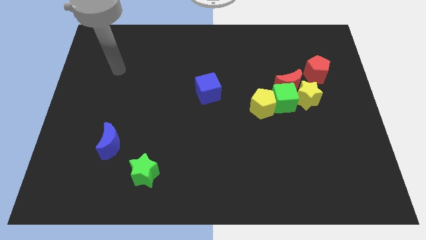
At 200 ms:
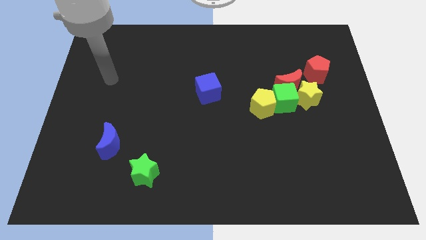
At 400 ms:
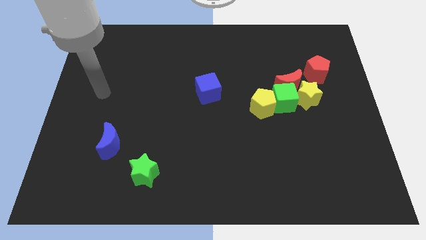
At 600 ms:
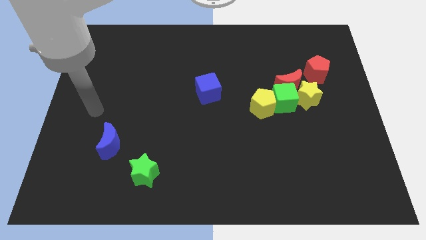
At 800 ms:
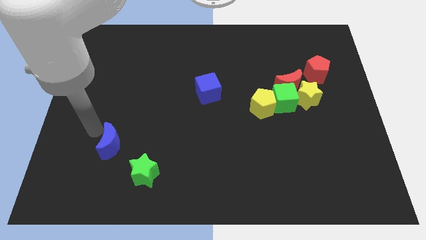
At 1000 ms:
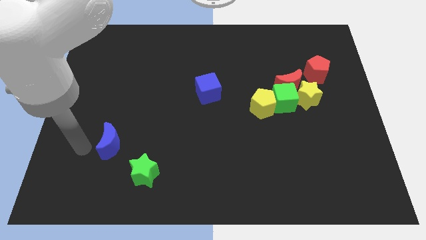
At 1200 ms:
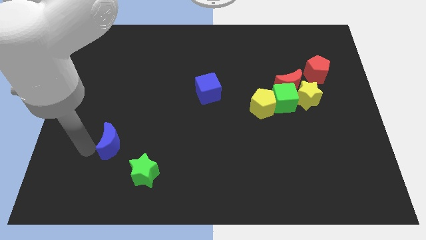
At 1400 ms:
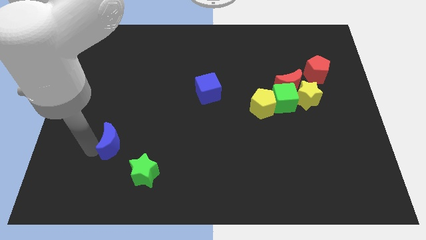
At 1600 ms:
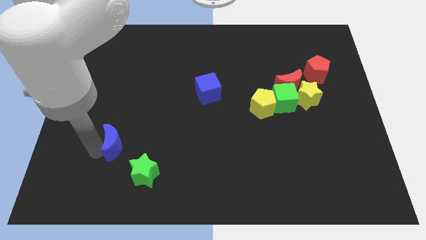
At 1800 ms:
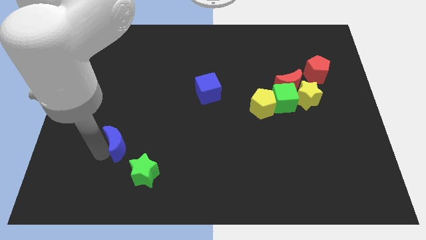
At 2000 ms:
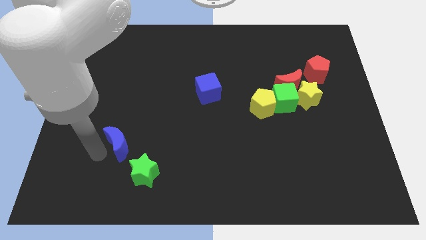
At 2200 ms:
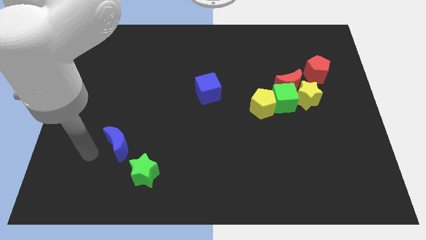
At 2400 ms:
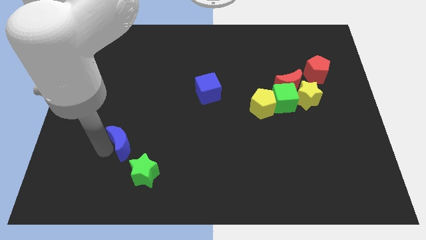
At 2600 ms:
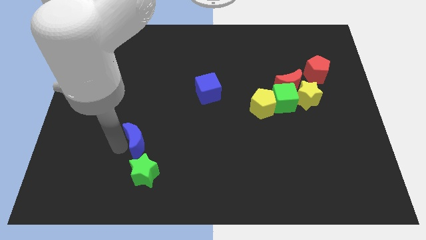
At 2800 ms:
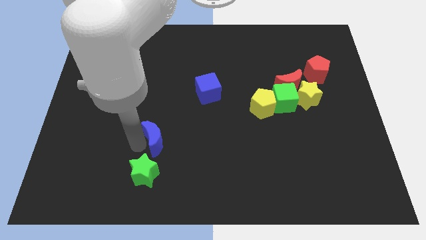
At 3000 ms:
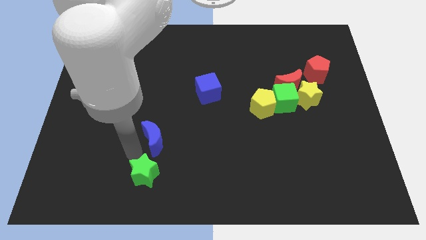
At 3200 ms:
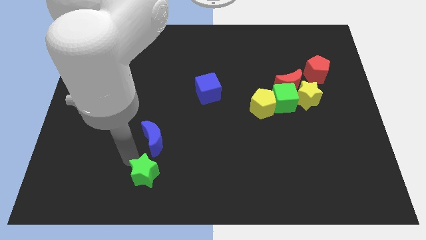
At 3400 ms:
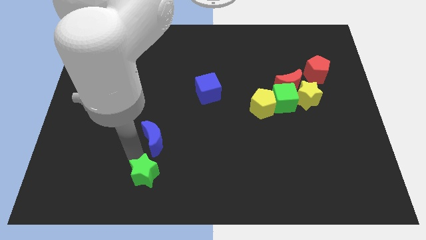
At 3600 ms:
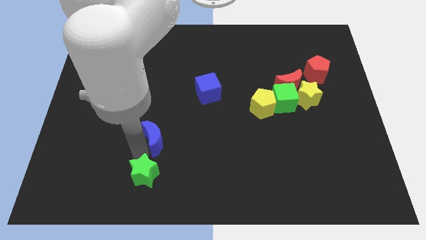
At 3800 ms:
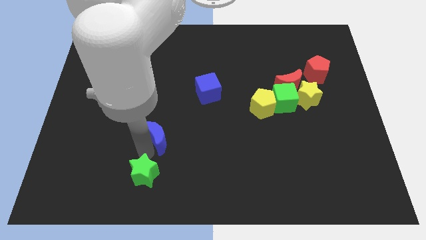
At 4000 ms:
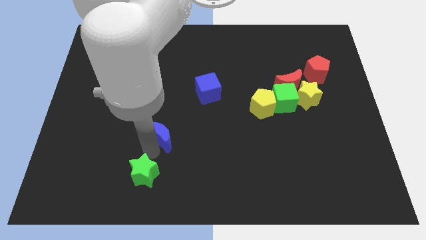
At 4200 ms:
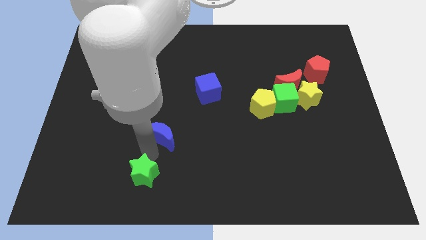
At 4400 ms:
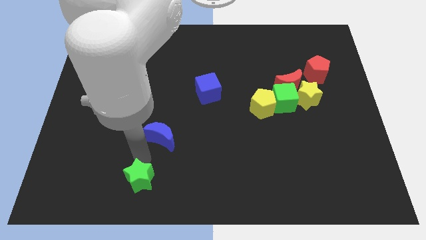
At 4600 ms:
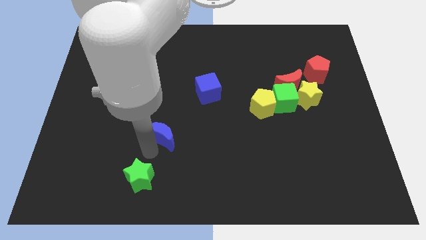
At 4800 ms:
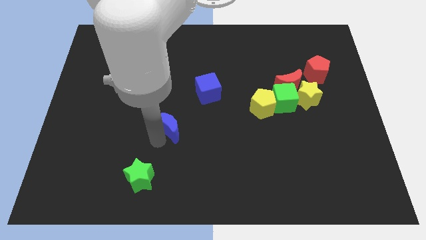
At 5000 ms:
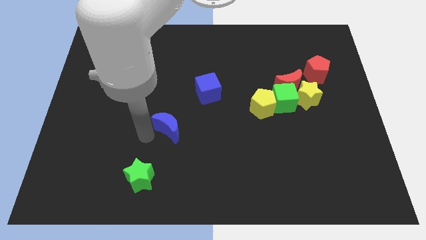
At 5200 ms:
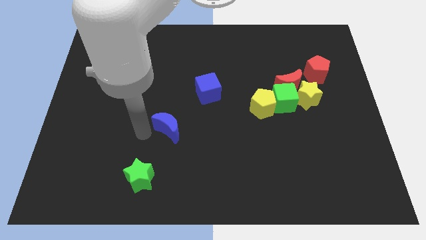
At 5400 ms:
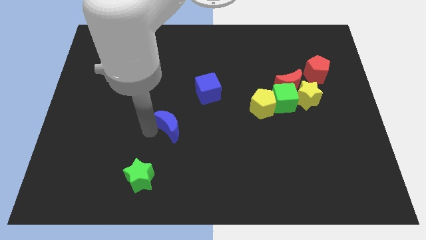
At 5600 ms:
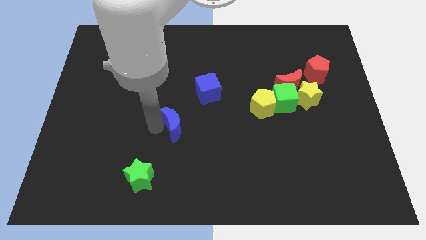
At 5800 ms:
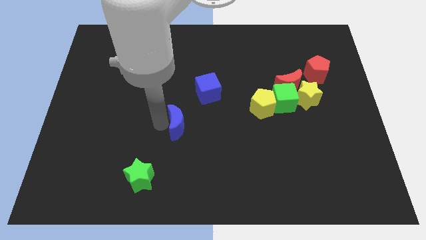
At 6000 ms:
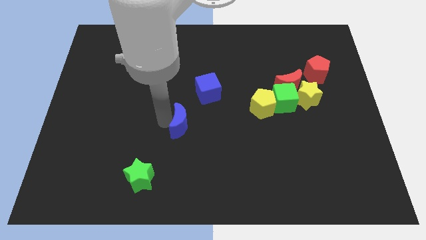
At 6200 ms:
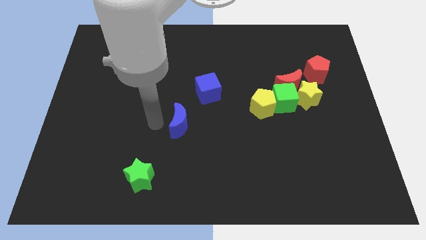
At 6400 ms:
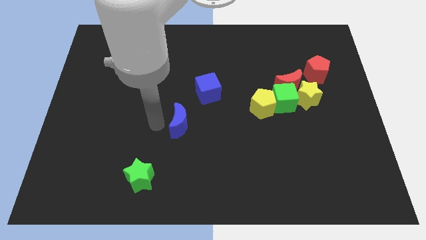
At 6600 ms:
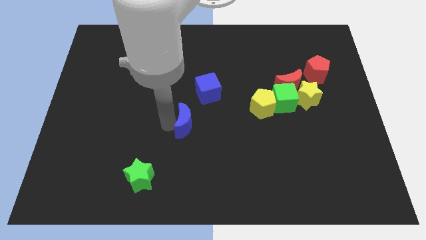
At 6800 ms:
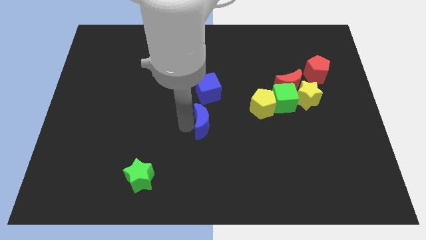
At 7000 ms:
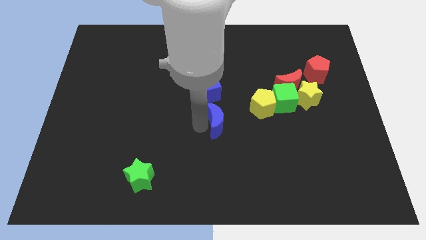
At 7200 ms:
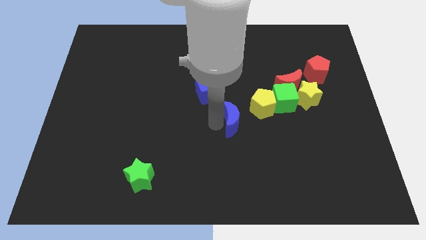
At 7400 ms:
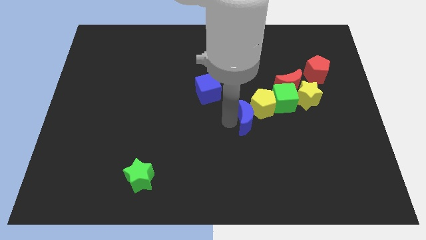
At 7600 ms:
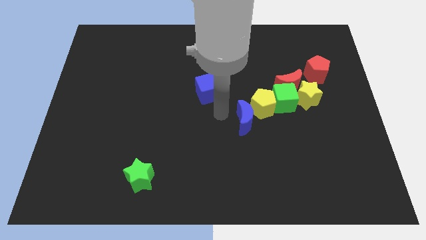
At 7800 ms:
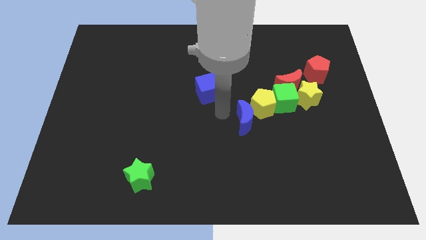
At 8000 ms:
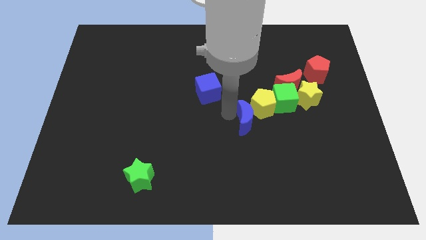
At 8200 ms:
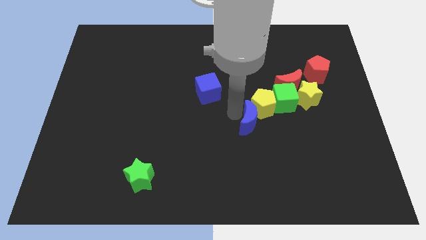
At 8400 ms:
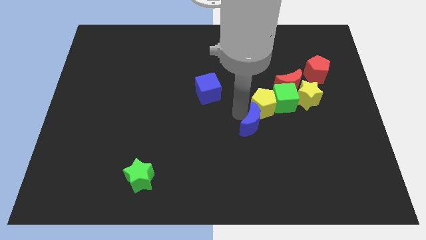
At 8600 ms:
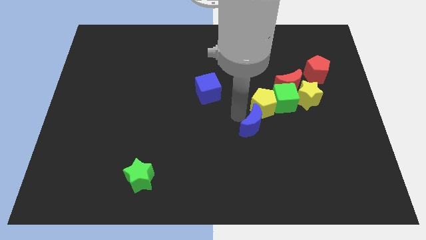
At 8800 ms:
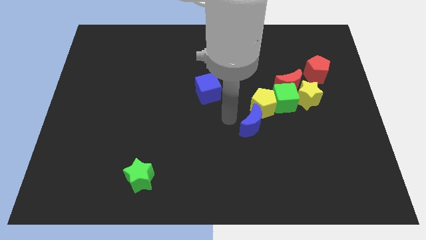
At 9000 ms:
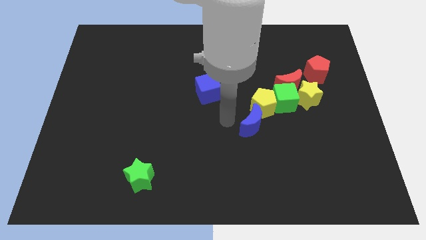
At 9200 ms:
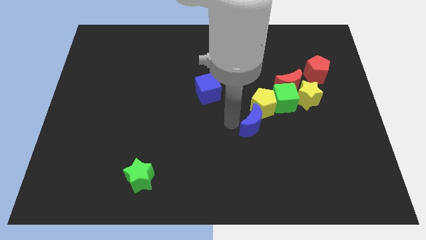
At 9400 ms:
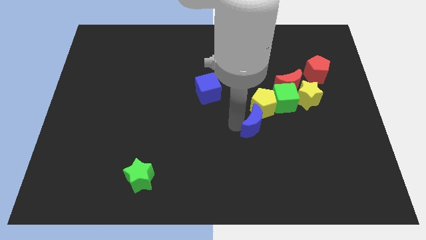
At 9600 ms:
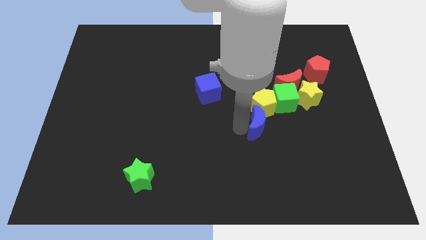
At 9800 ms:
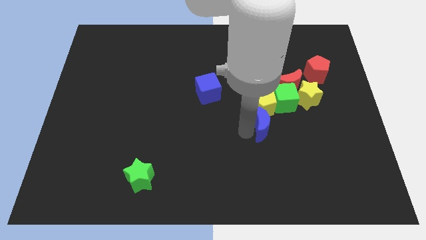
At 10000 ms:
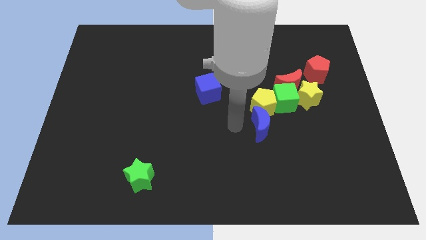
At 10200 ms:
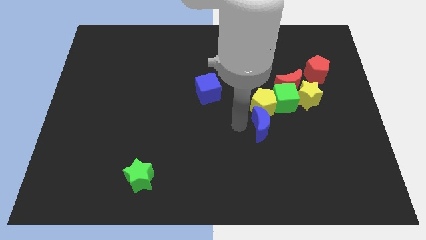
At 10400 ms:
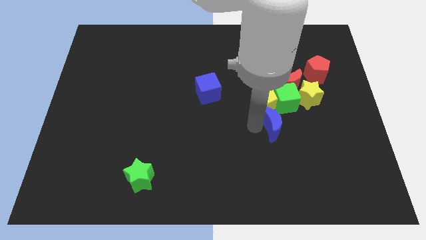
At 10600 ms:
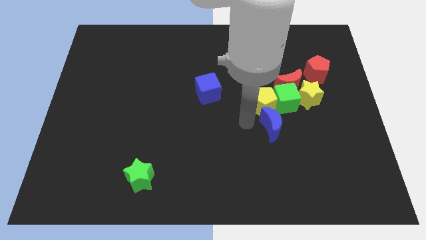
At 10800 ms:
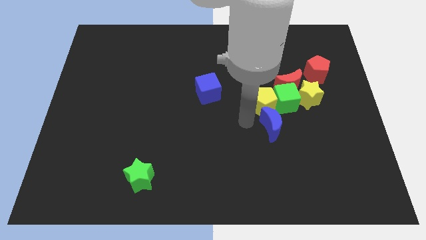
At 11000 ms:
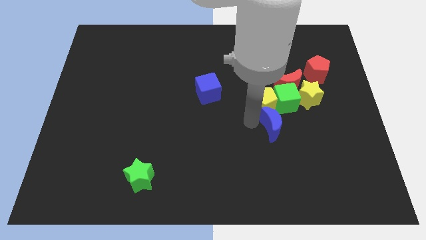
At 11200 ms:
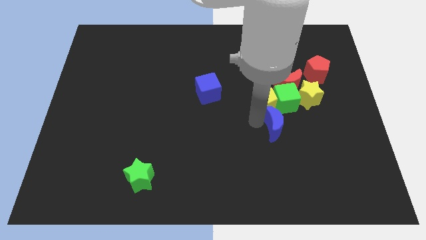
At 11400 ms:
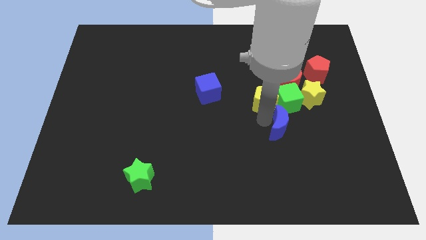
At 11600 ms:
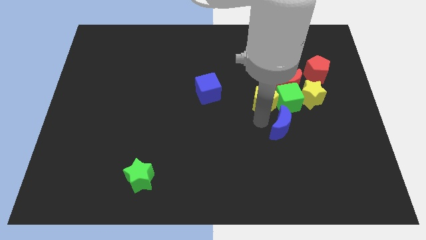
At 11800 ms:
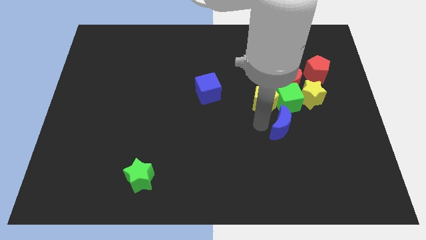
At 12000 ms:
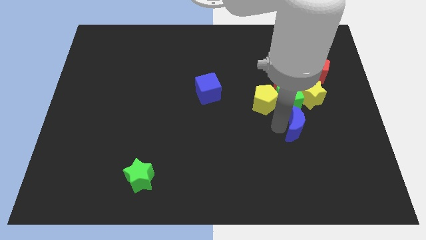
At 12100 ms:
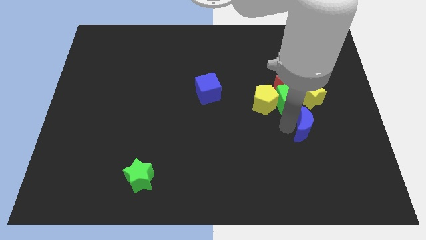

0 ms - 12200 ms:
push the blue moon to the bottom side of the yellow star
